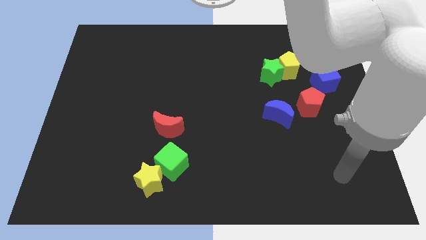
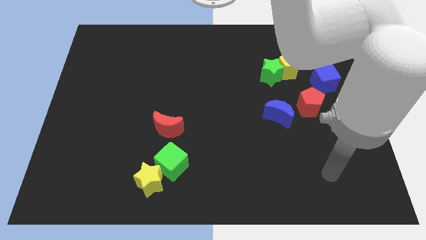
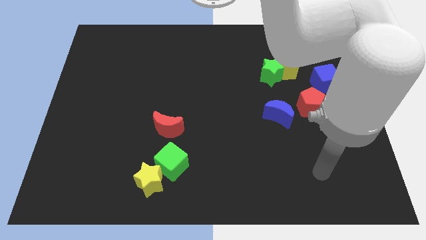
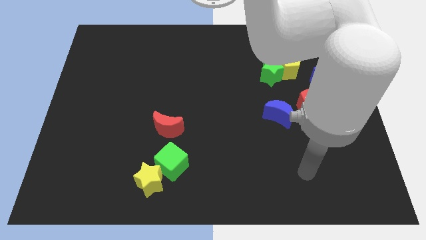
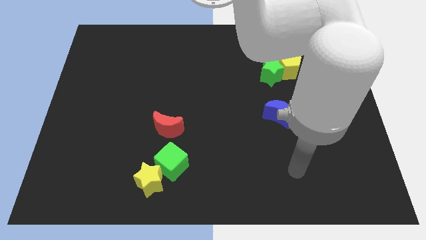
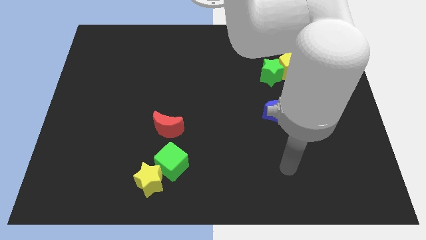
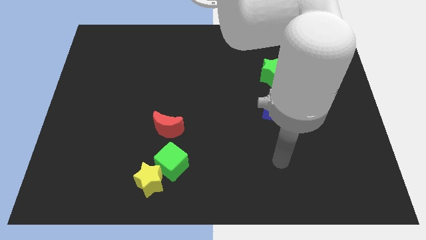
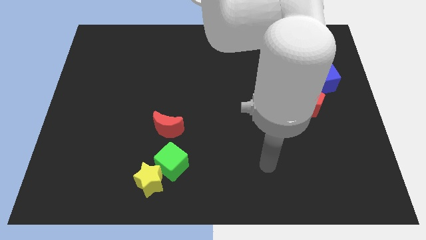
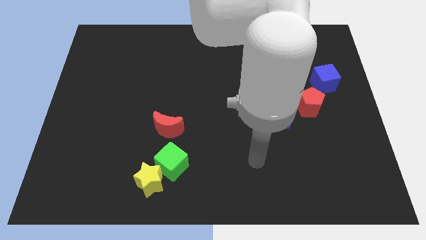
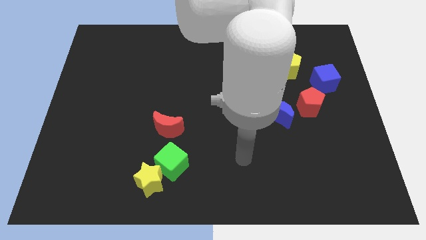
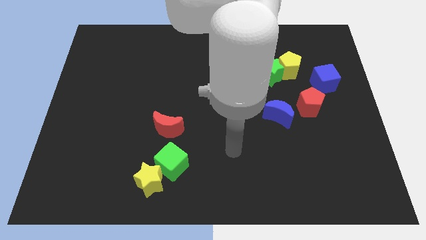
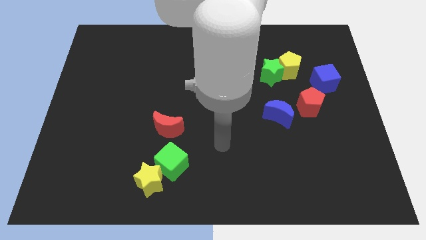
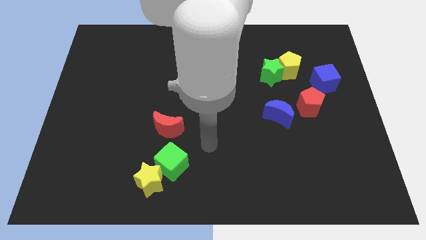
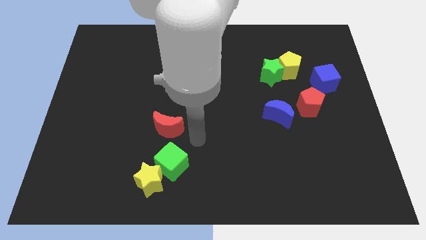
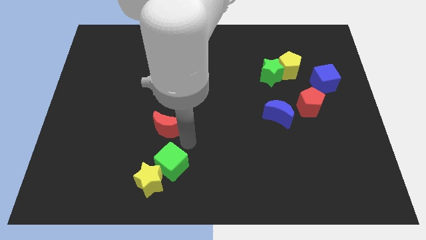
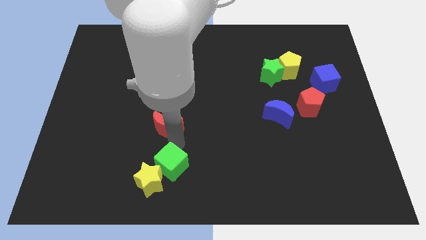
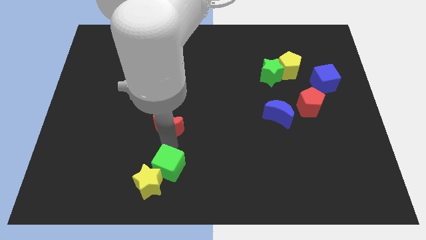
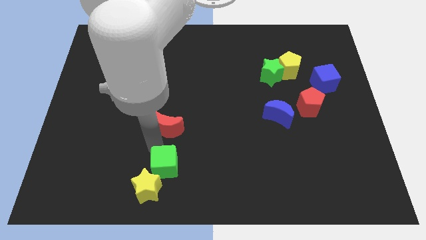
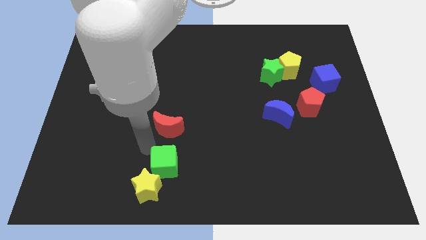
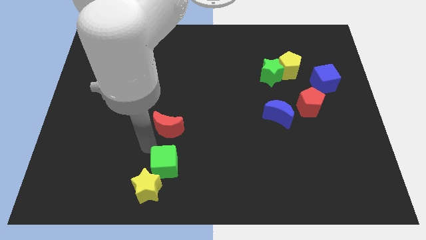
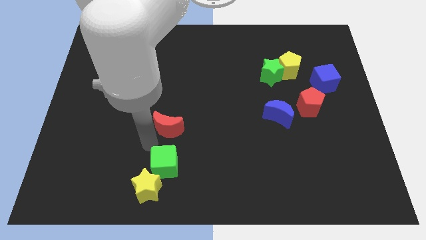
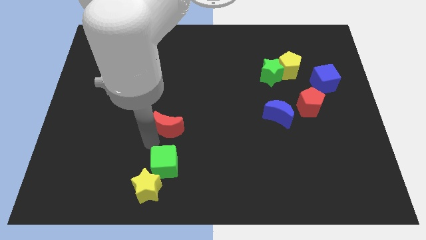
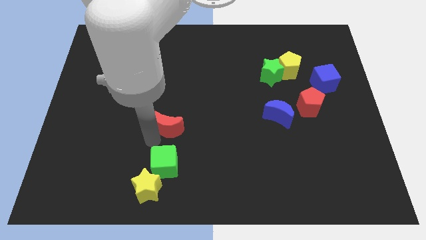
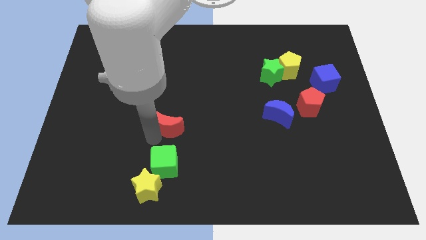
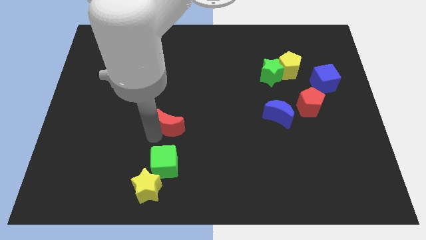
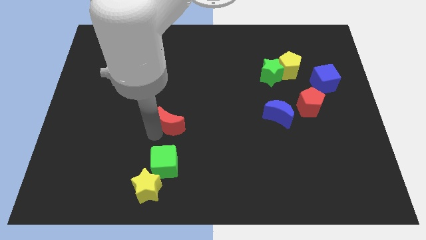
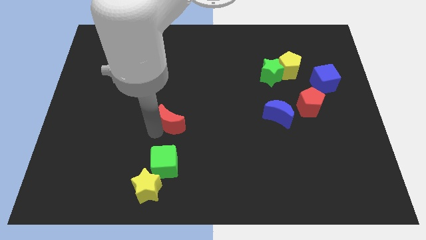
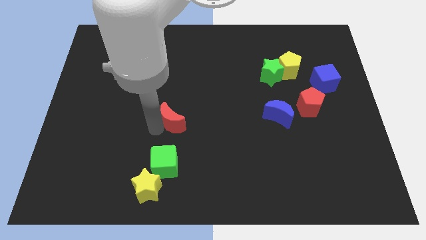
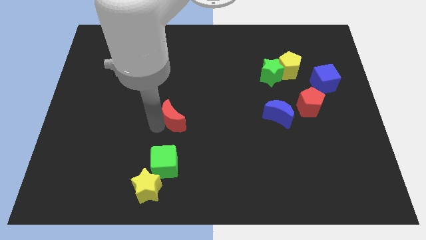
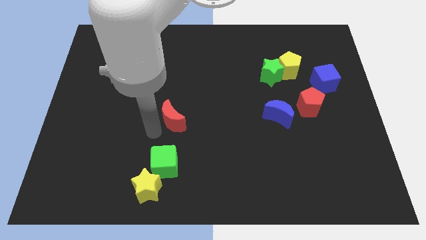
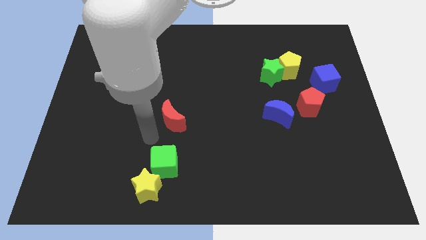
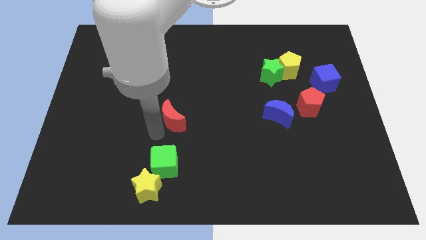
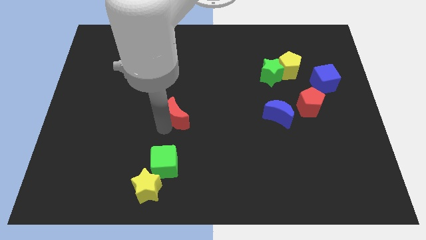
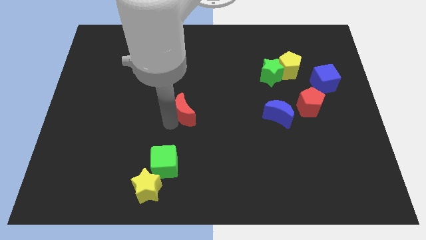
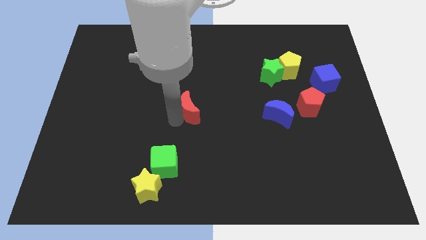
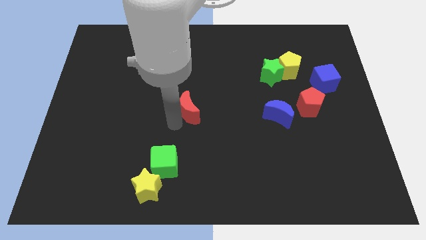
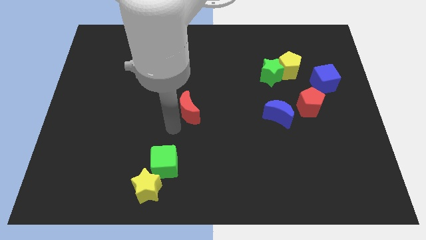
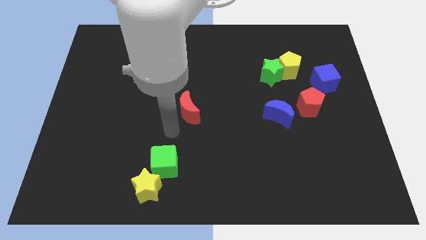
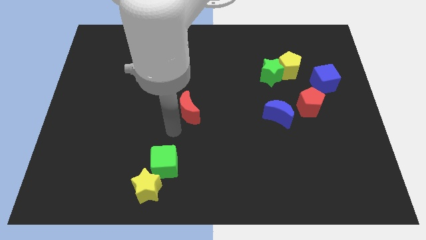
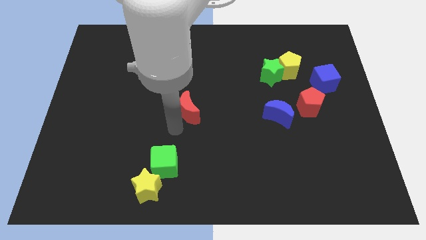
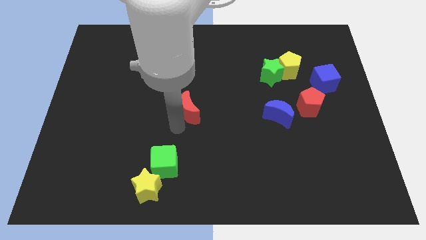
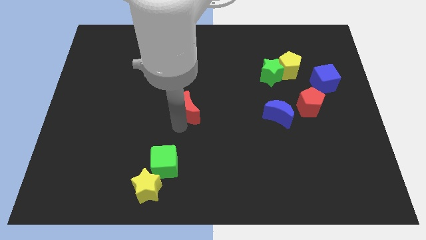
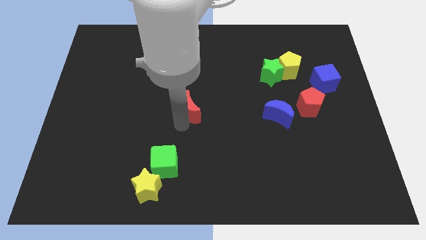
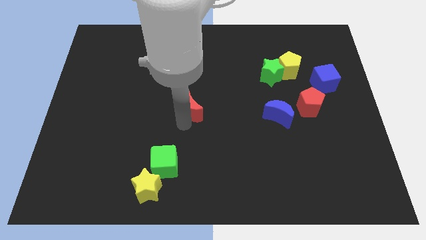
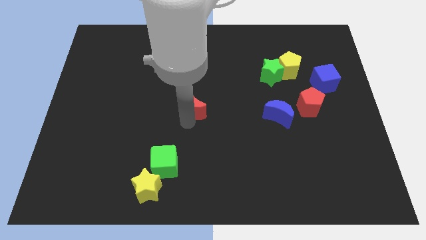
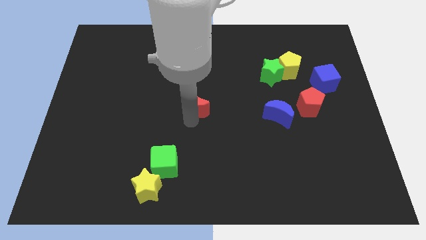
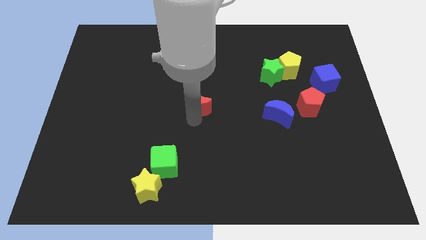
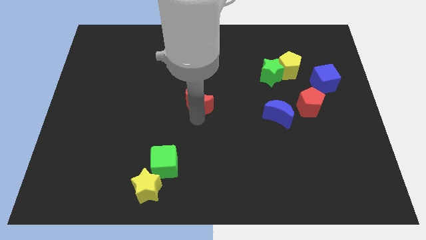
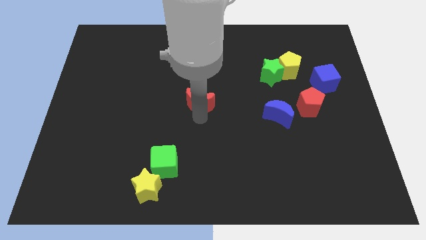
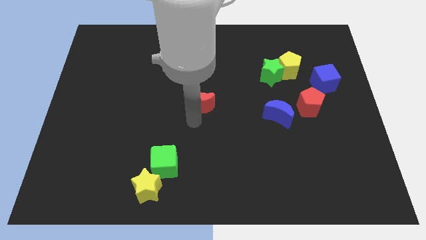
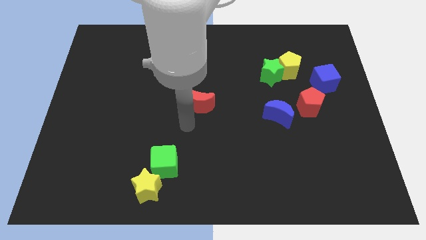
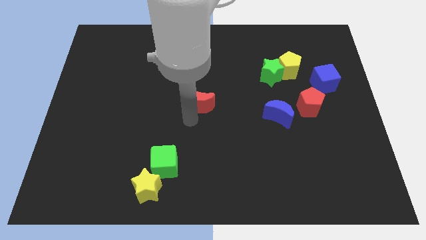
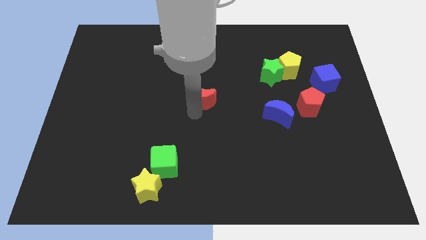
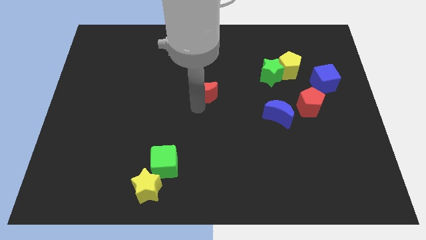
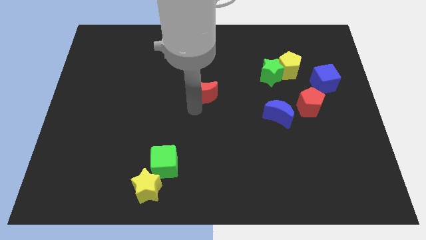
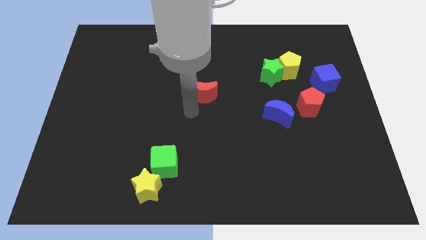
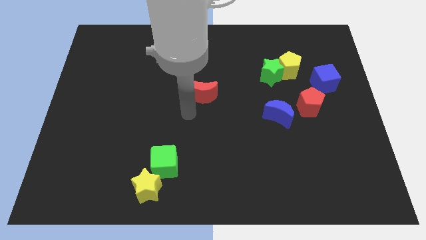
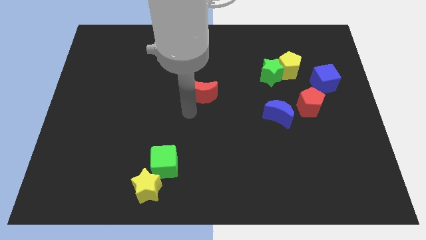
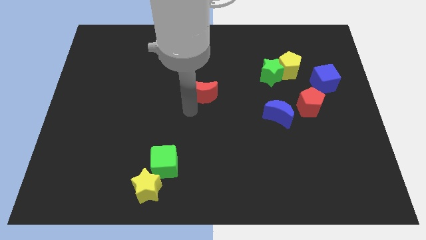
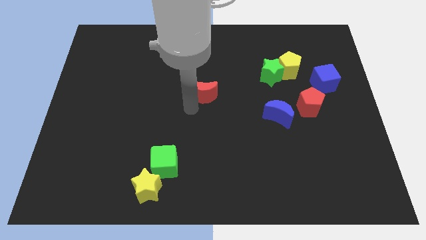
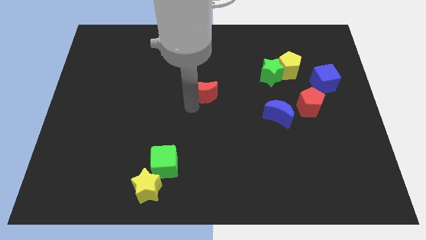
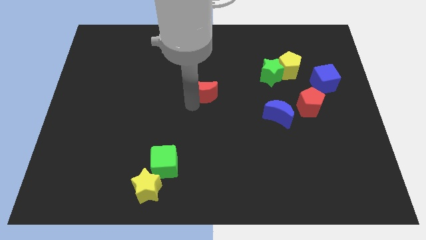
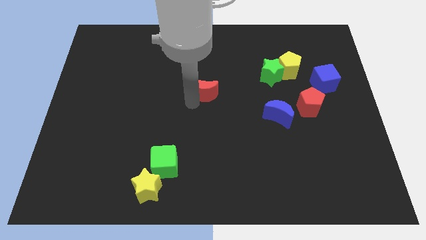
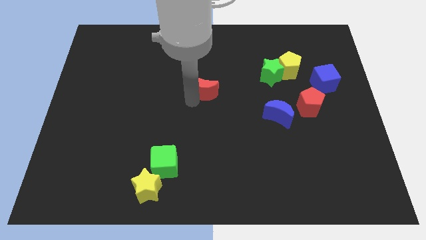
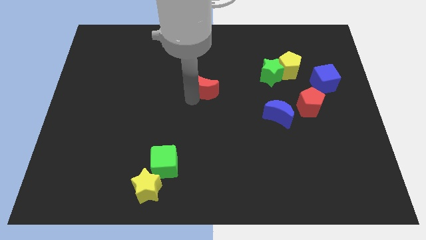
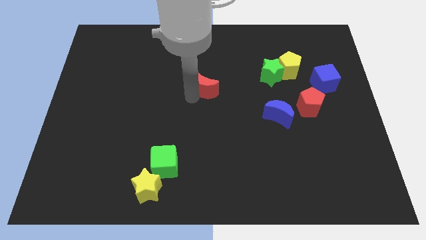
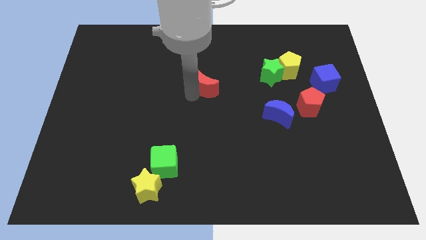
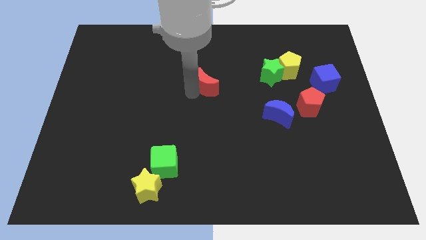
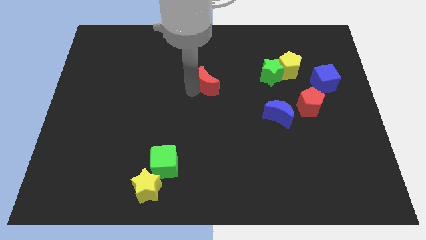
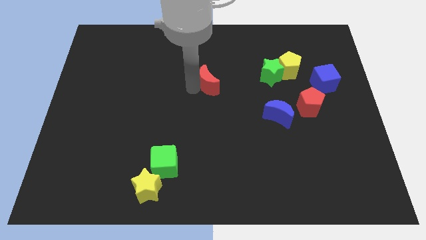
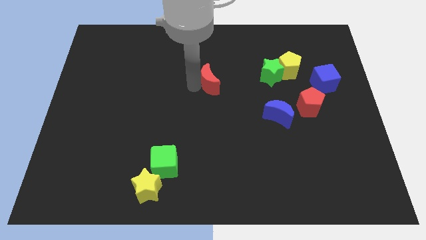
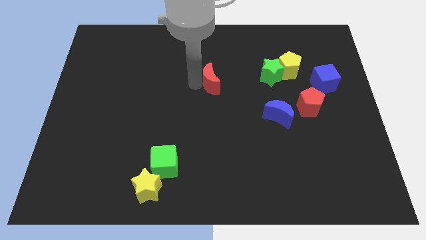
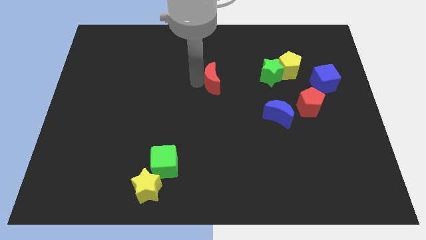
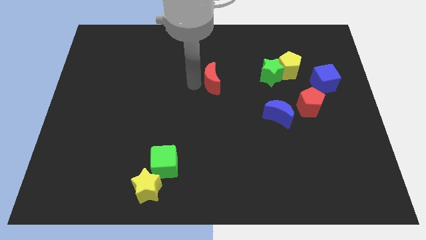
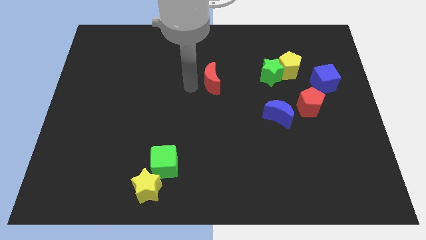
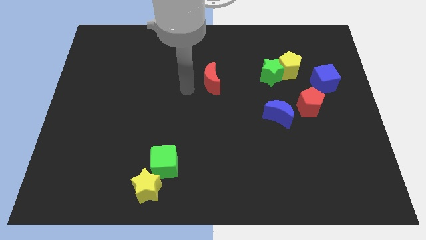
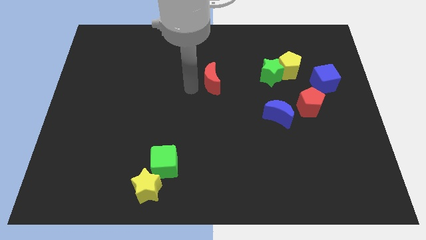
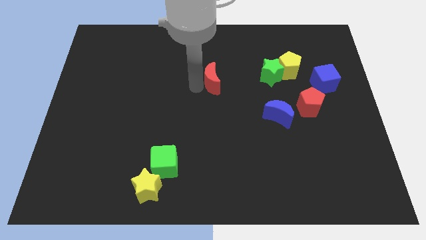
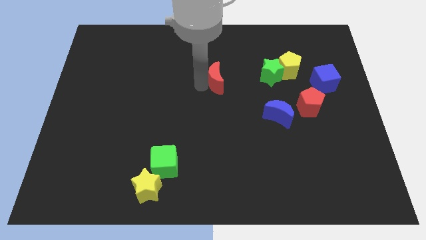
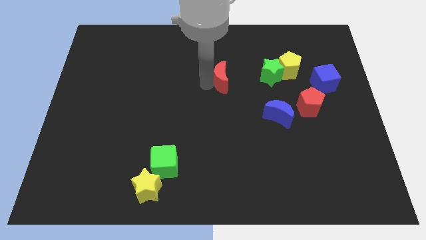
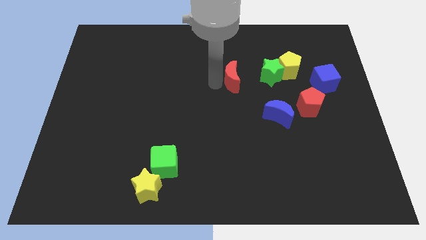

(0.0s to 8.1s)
move the red moon upwards and then right
